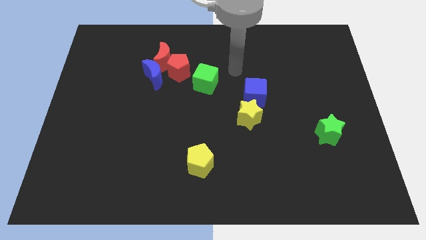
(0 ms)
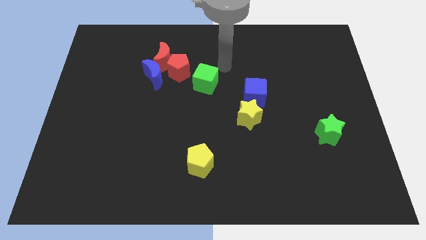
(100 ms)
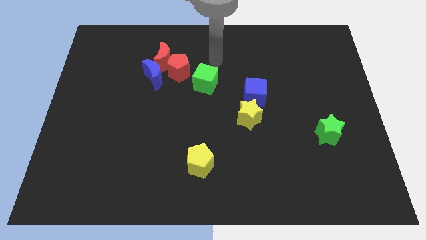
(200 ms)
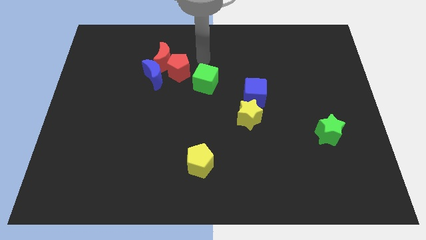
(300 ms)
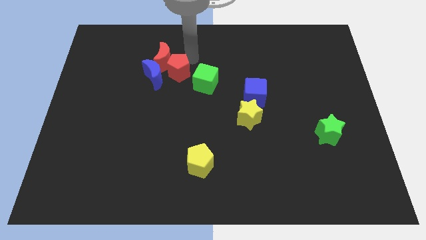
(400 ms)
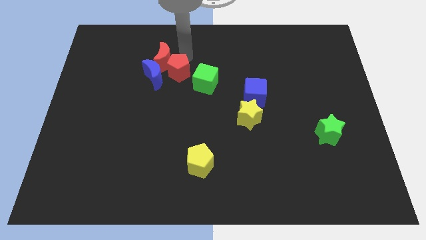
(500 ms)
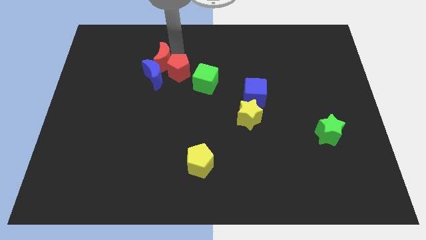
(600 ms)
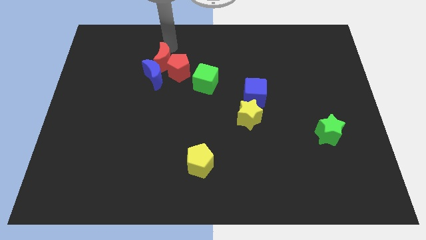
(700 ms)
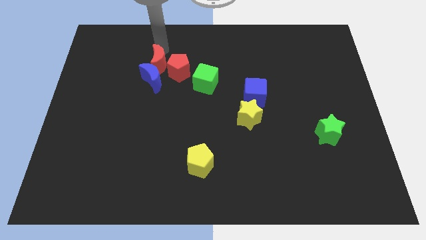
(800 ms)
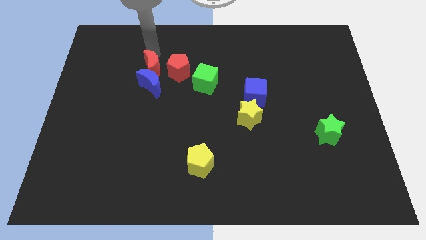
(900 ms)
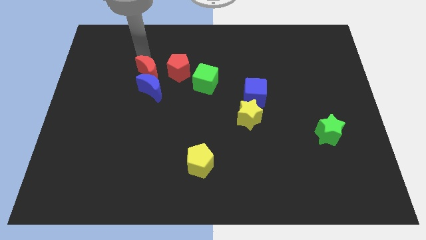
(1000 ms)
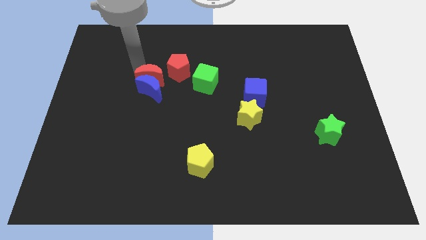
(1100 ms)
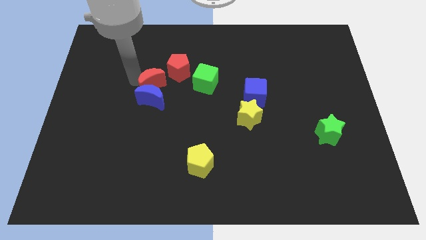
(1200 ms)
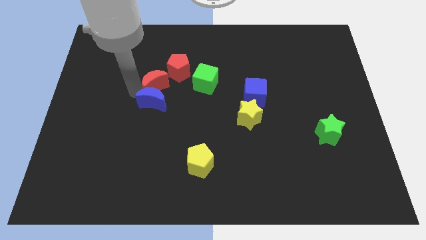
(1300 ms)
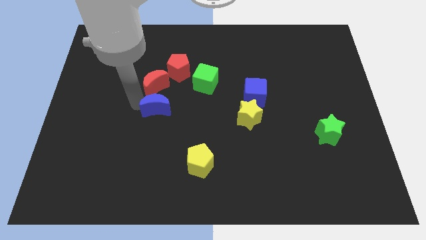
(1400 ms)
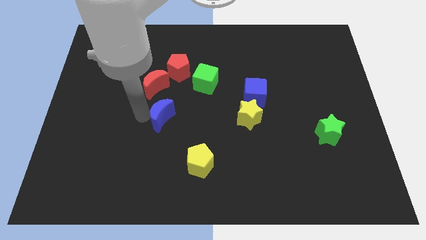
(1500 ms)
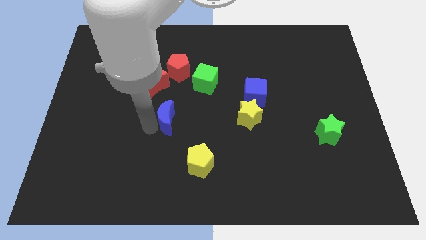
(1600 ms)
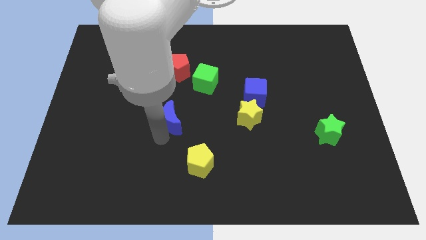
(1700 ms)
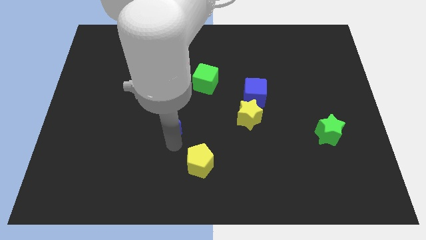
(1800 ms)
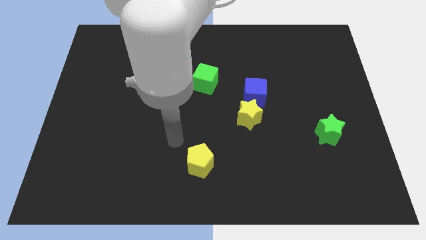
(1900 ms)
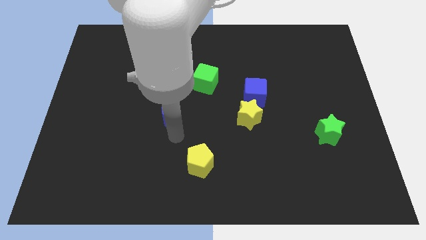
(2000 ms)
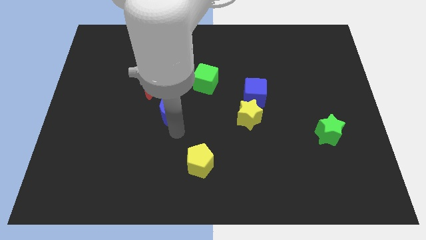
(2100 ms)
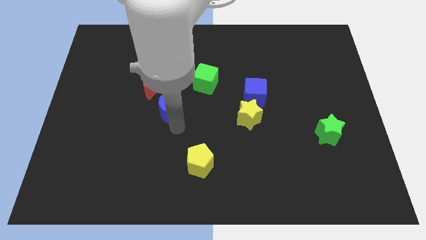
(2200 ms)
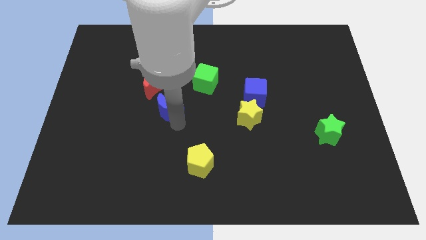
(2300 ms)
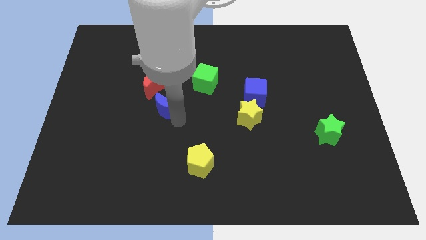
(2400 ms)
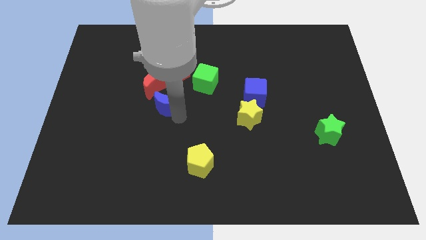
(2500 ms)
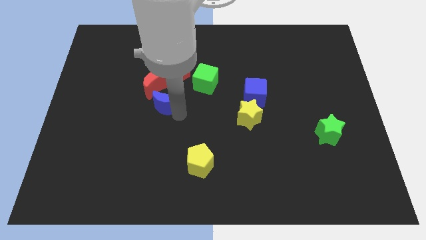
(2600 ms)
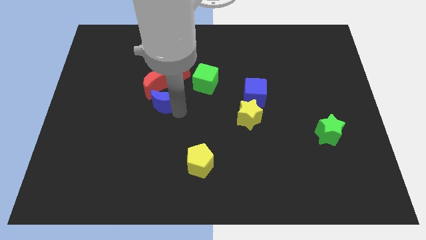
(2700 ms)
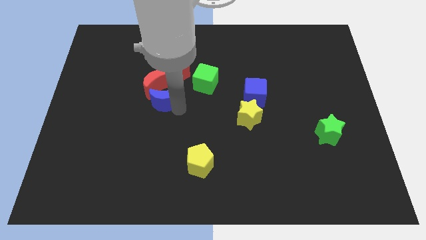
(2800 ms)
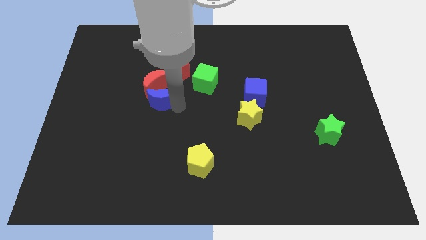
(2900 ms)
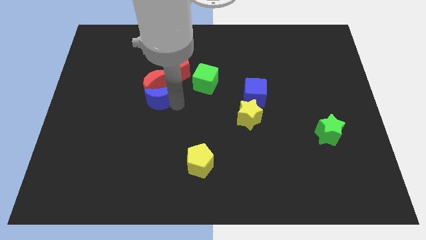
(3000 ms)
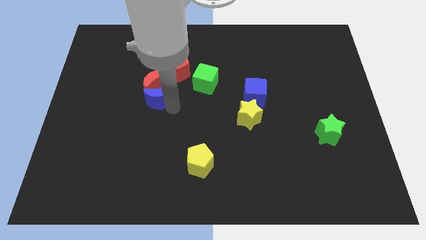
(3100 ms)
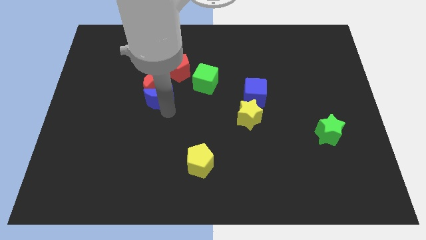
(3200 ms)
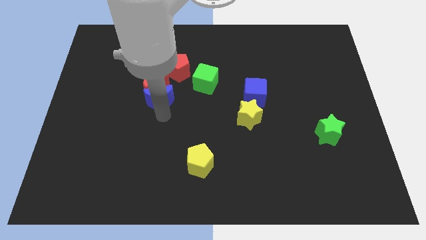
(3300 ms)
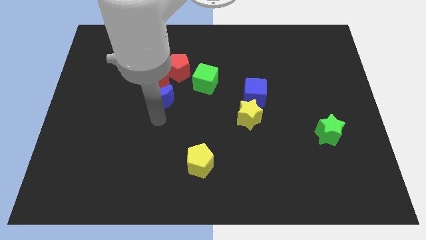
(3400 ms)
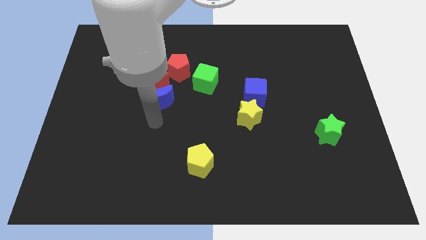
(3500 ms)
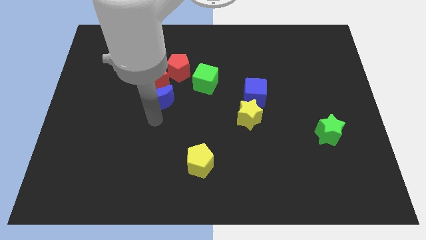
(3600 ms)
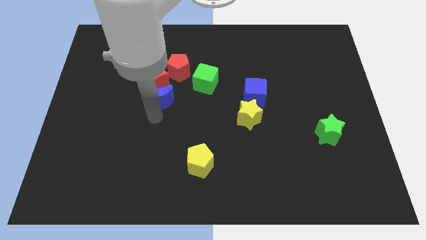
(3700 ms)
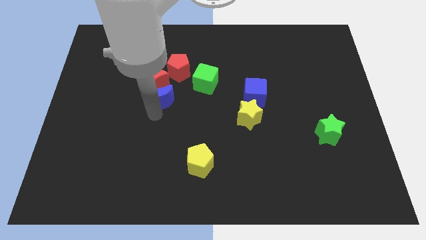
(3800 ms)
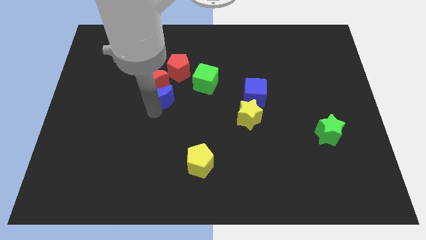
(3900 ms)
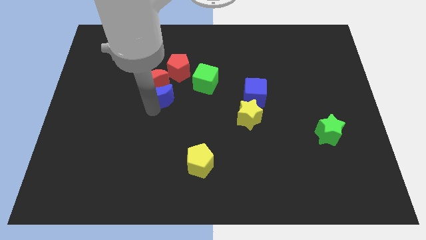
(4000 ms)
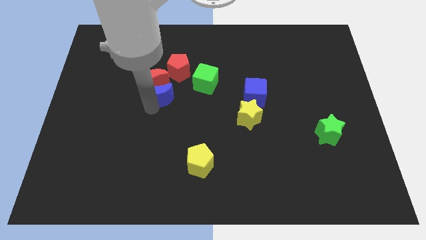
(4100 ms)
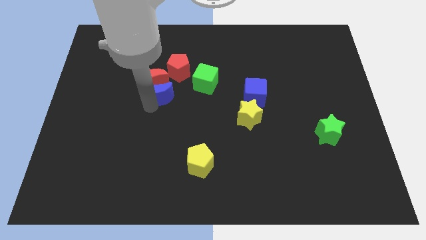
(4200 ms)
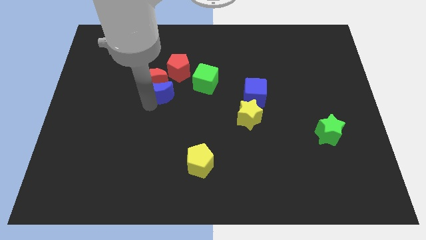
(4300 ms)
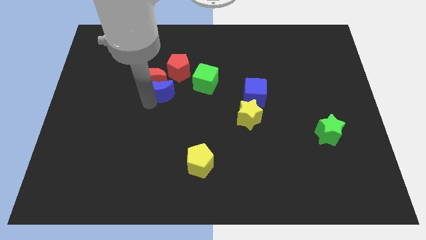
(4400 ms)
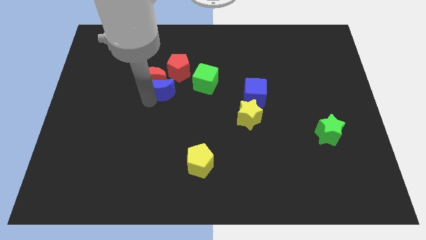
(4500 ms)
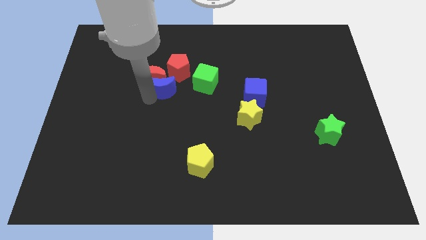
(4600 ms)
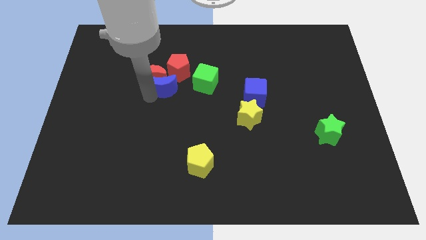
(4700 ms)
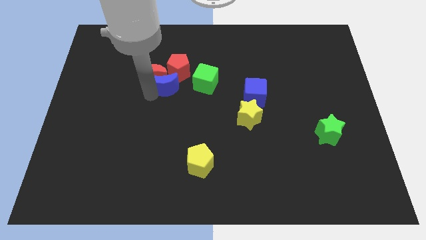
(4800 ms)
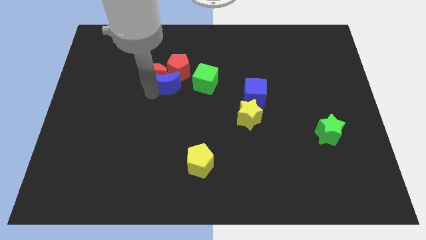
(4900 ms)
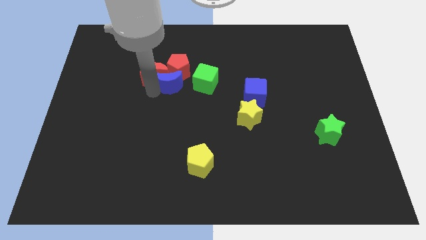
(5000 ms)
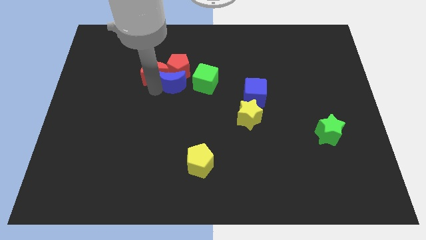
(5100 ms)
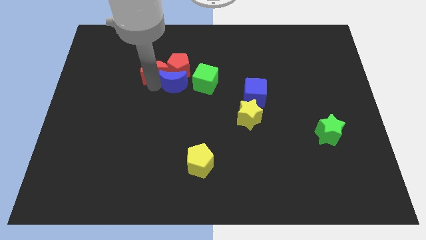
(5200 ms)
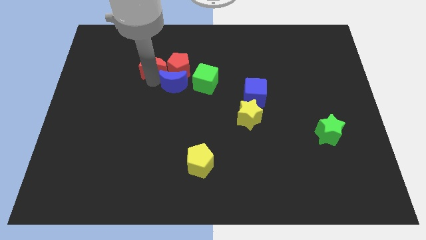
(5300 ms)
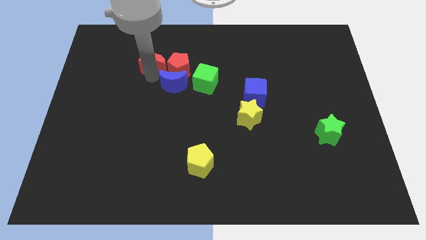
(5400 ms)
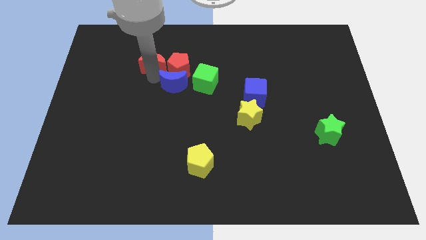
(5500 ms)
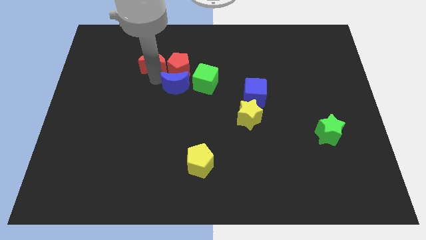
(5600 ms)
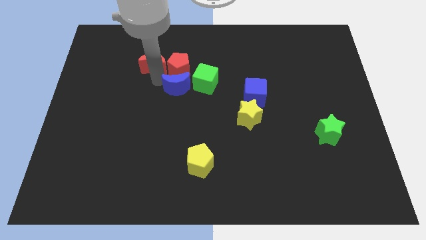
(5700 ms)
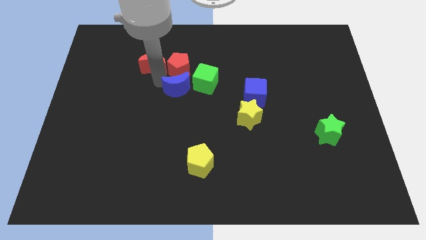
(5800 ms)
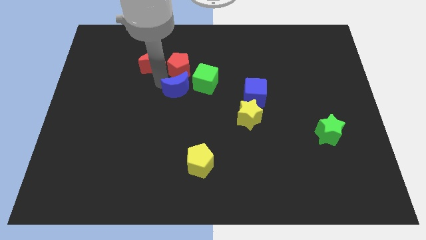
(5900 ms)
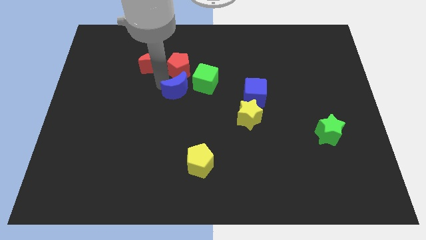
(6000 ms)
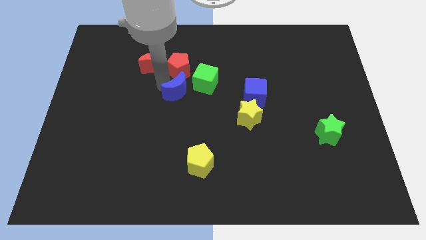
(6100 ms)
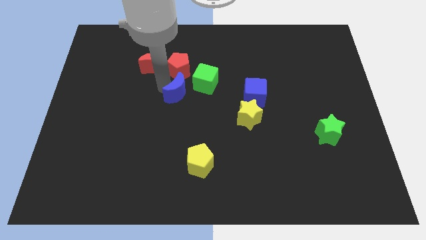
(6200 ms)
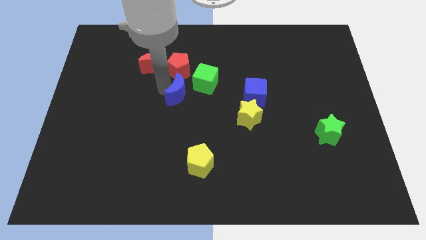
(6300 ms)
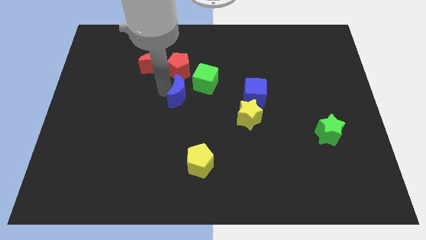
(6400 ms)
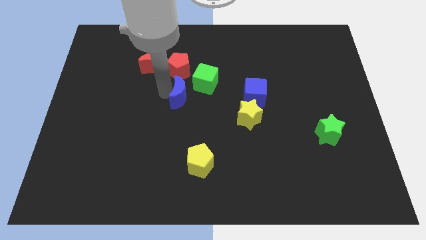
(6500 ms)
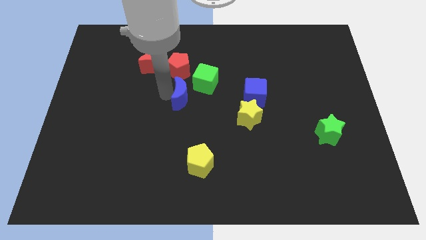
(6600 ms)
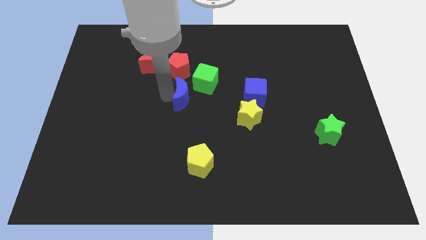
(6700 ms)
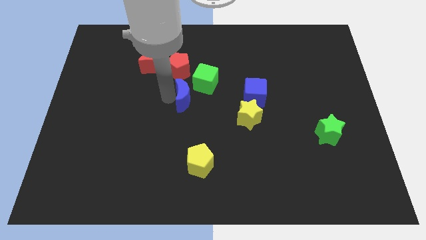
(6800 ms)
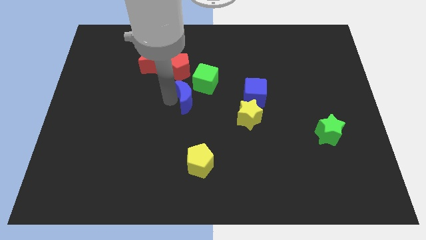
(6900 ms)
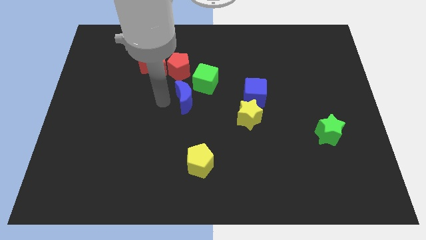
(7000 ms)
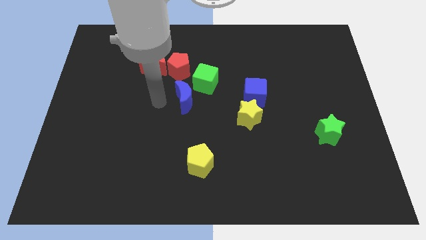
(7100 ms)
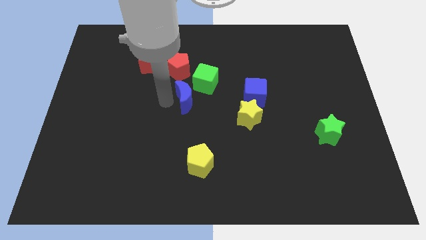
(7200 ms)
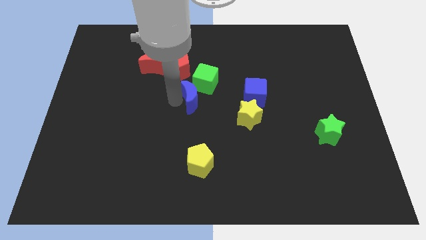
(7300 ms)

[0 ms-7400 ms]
slightly move the blue moon to the right

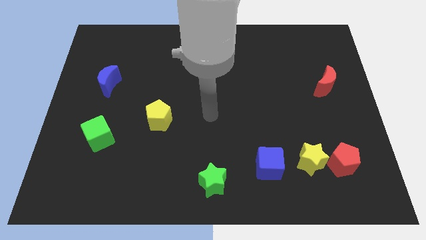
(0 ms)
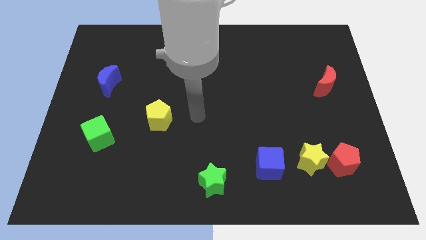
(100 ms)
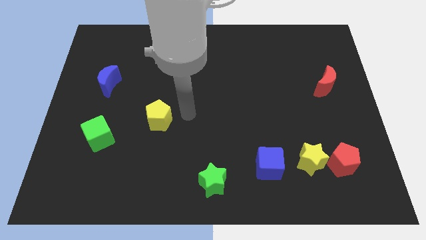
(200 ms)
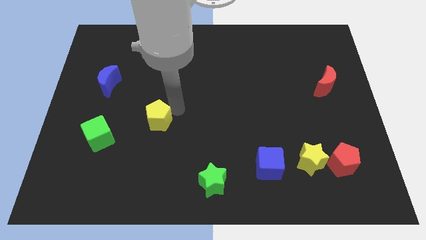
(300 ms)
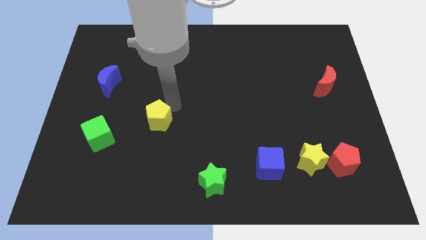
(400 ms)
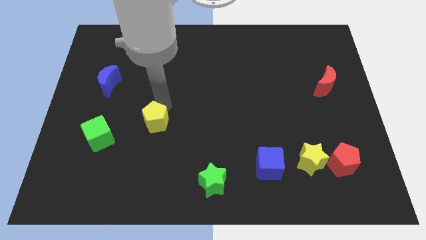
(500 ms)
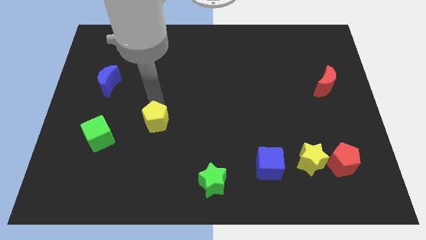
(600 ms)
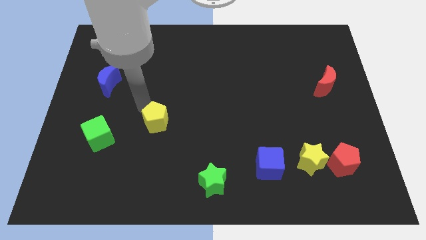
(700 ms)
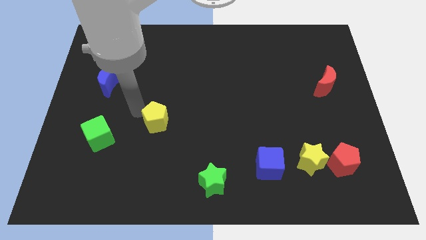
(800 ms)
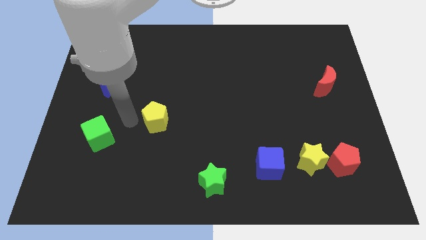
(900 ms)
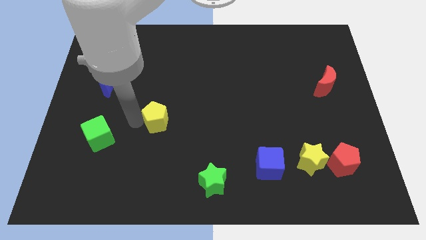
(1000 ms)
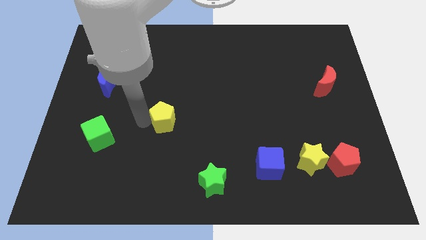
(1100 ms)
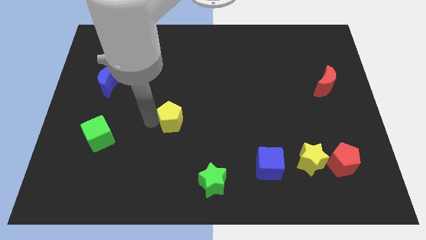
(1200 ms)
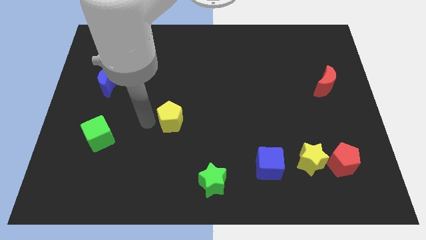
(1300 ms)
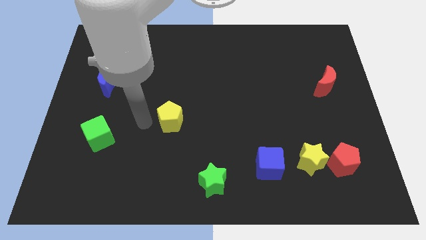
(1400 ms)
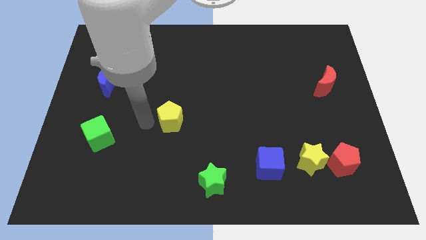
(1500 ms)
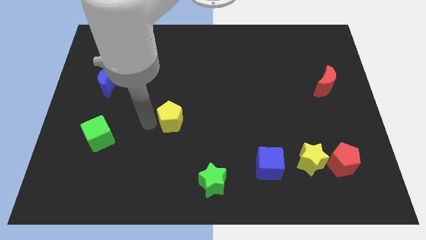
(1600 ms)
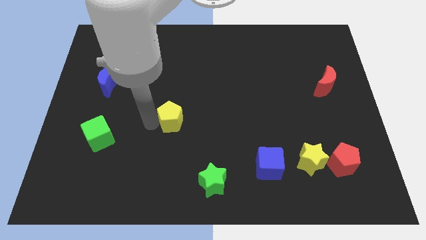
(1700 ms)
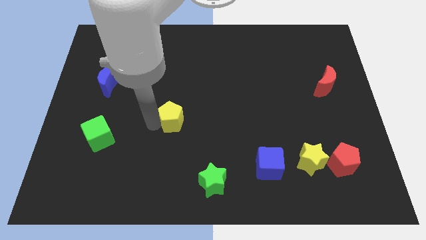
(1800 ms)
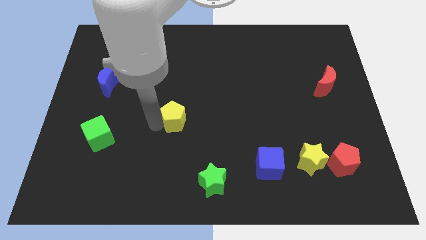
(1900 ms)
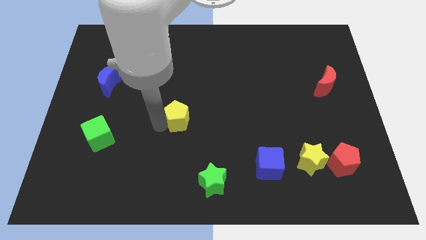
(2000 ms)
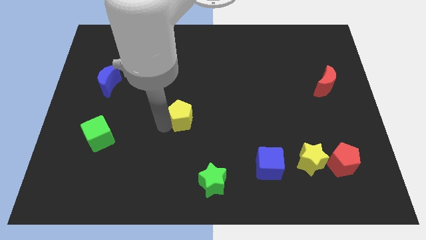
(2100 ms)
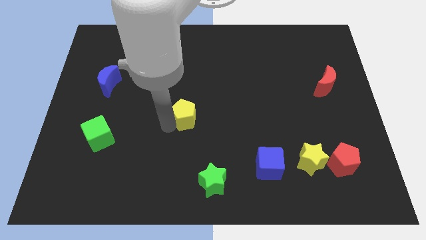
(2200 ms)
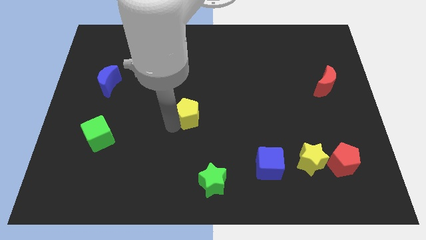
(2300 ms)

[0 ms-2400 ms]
push the yellow pentagon to the right somewhat
